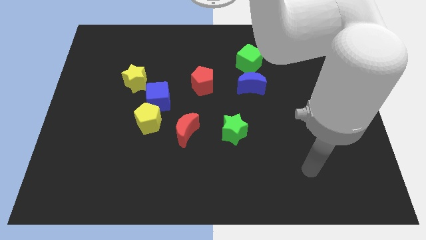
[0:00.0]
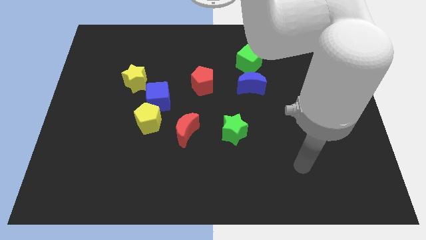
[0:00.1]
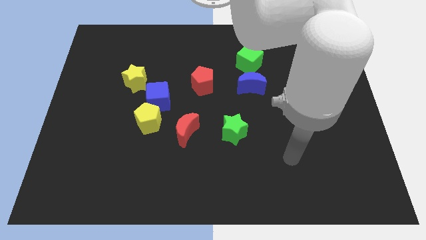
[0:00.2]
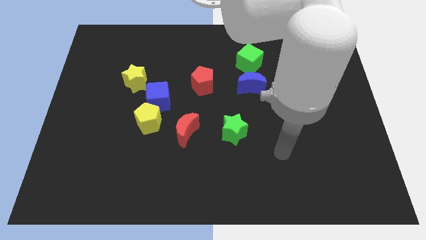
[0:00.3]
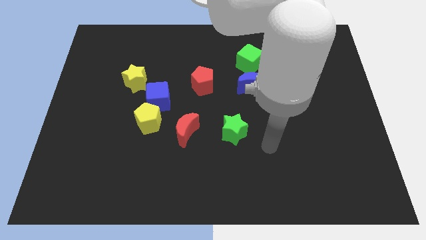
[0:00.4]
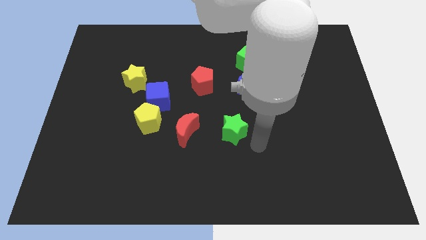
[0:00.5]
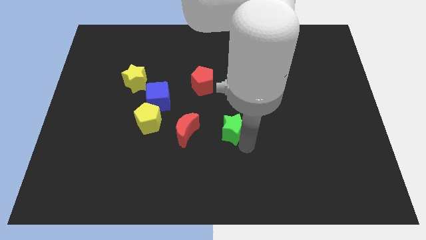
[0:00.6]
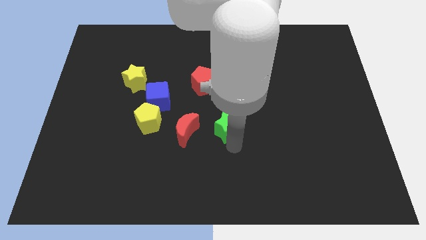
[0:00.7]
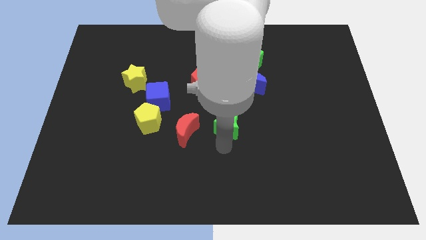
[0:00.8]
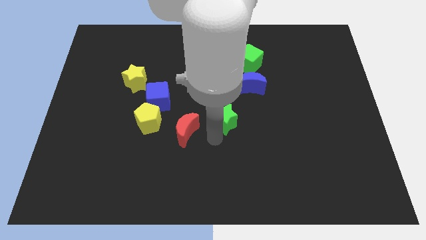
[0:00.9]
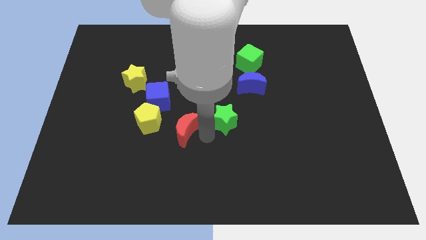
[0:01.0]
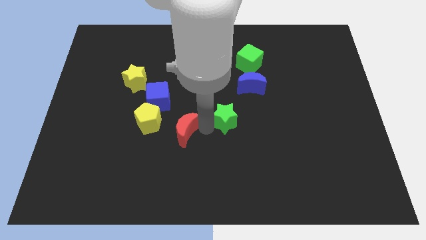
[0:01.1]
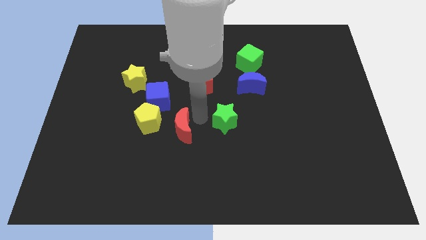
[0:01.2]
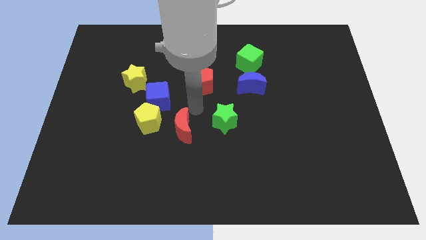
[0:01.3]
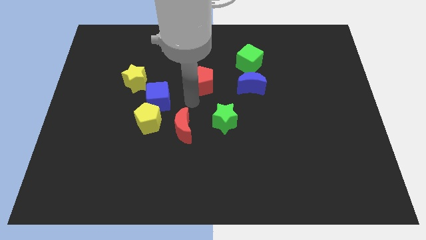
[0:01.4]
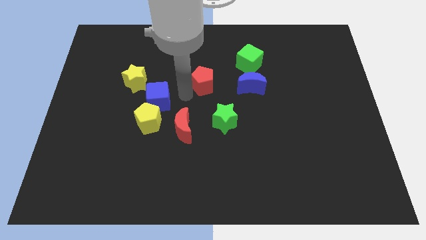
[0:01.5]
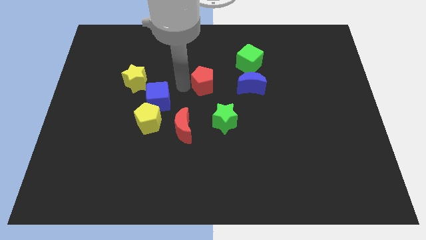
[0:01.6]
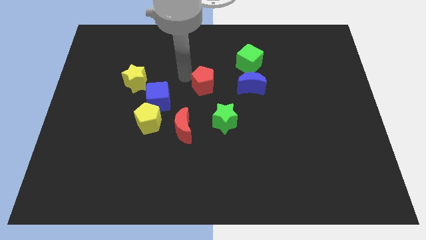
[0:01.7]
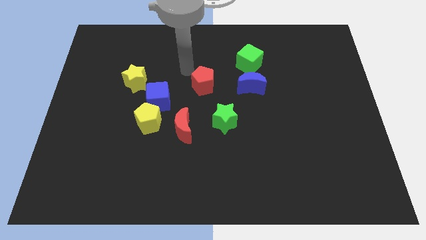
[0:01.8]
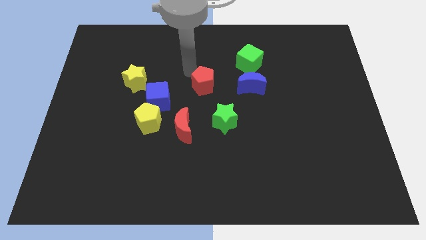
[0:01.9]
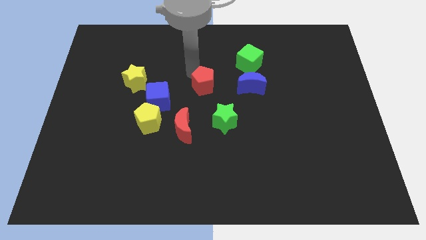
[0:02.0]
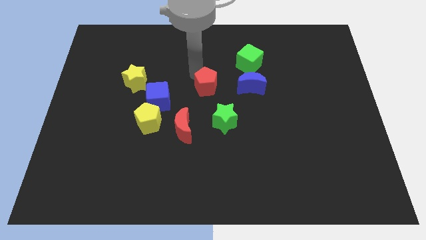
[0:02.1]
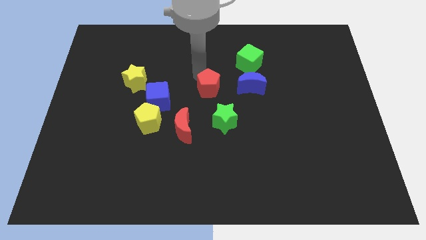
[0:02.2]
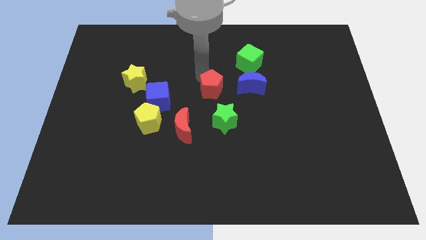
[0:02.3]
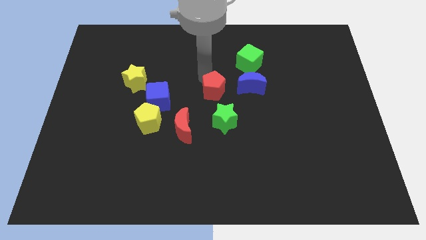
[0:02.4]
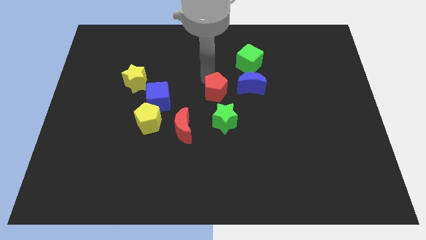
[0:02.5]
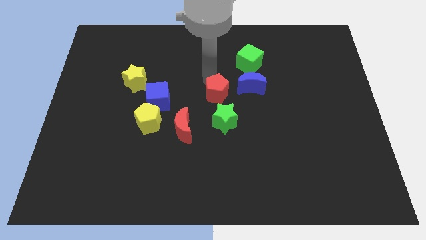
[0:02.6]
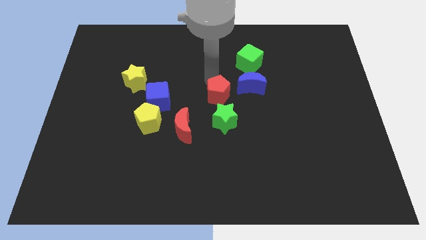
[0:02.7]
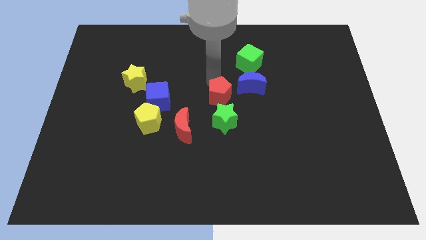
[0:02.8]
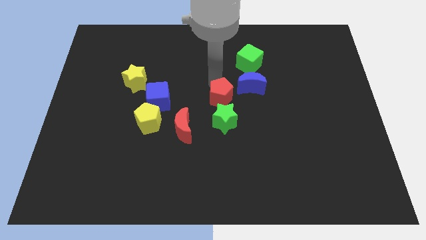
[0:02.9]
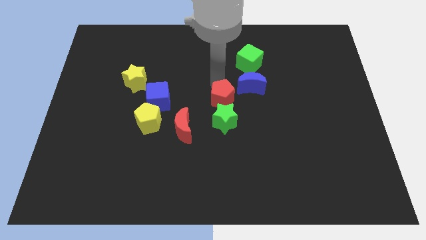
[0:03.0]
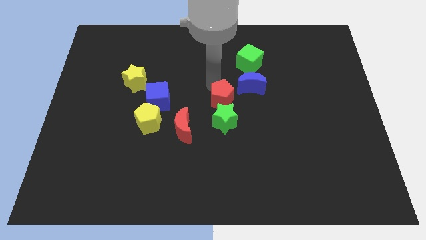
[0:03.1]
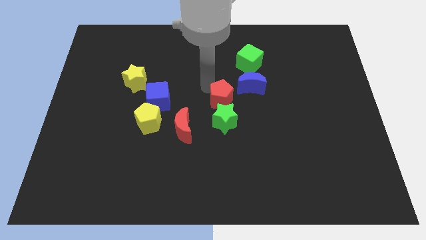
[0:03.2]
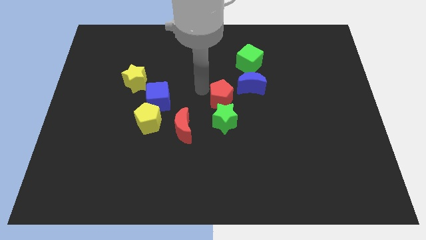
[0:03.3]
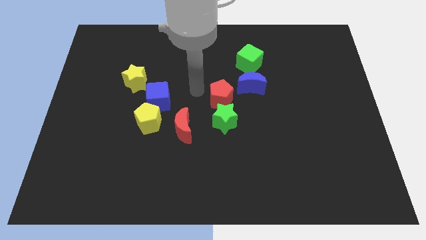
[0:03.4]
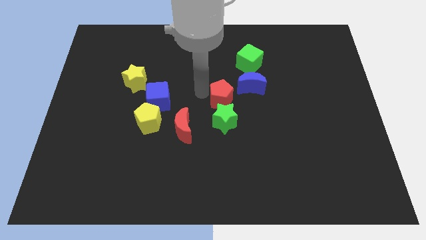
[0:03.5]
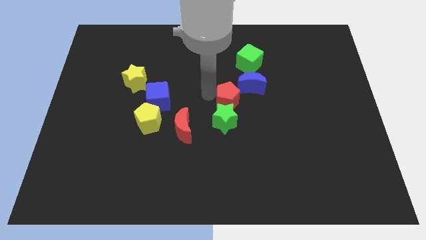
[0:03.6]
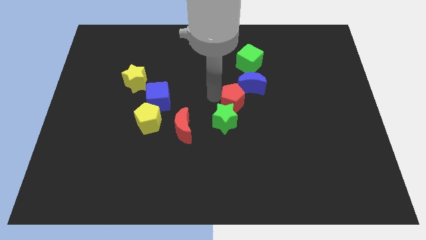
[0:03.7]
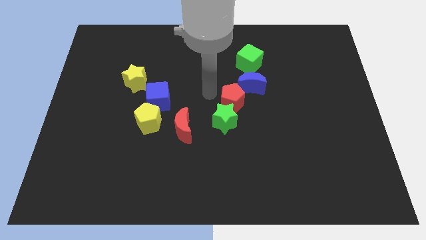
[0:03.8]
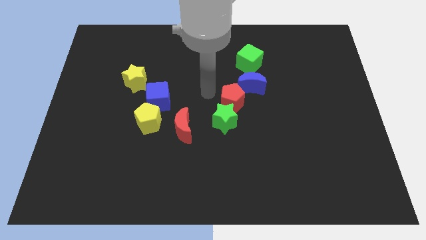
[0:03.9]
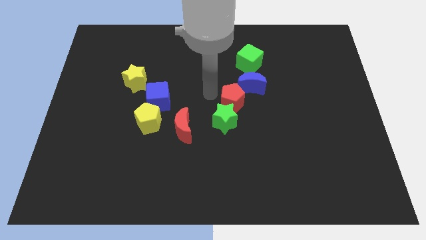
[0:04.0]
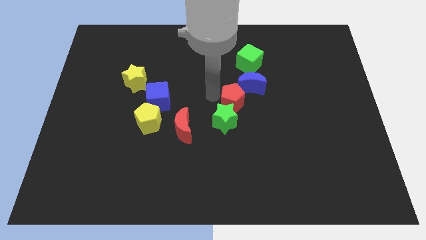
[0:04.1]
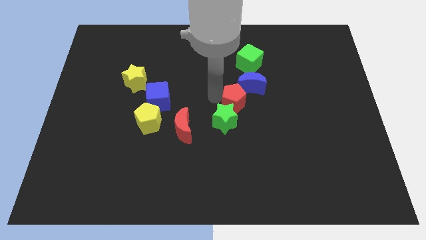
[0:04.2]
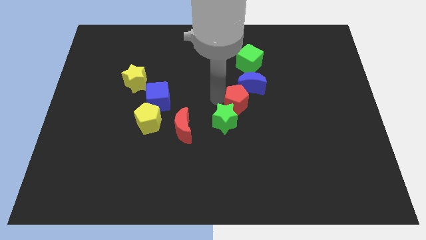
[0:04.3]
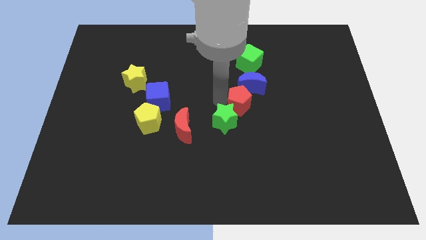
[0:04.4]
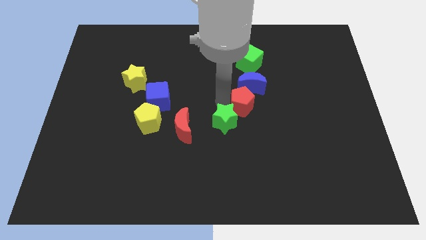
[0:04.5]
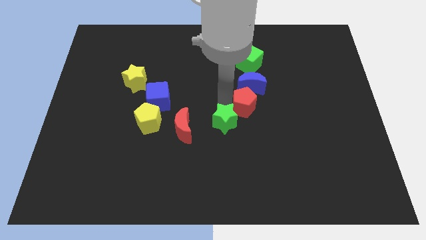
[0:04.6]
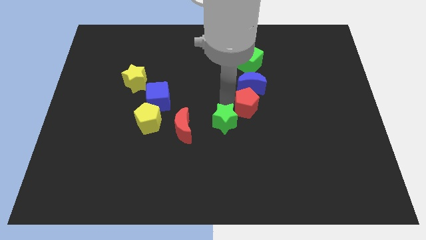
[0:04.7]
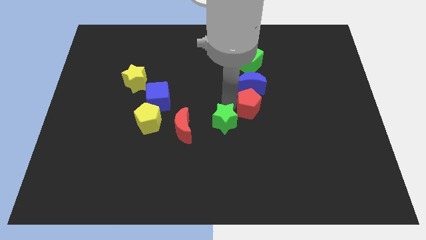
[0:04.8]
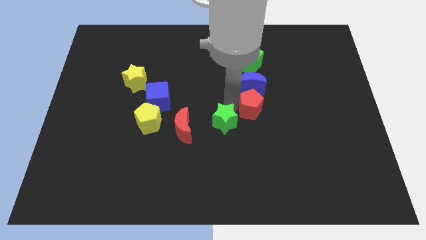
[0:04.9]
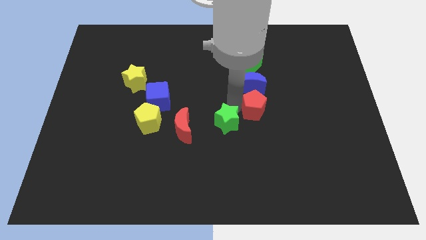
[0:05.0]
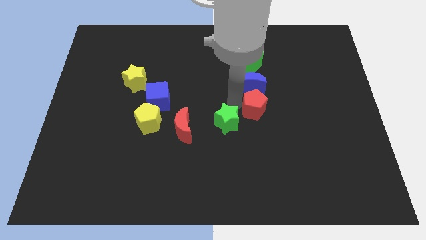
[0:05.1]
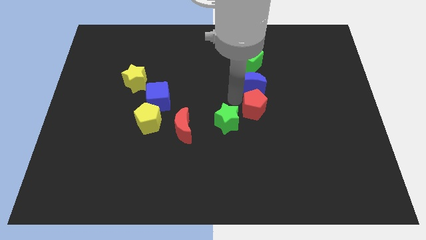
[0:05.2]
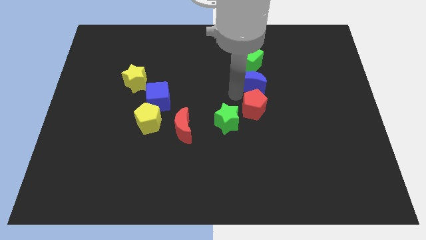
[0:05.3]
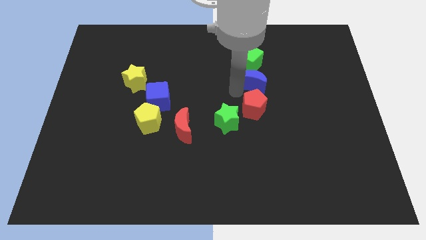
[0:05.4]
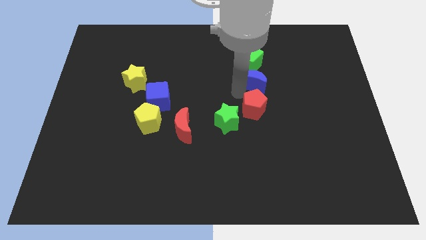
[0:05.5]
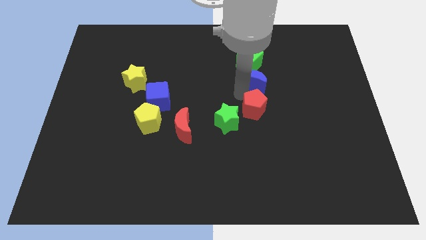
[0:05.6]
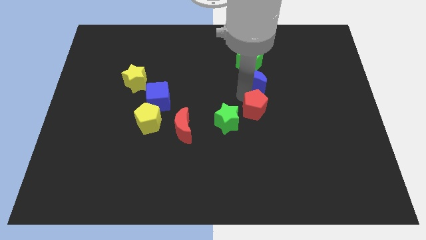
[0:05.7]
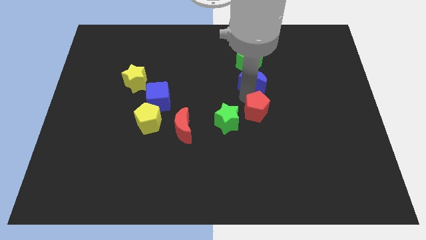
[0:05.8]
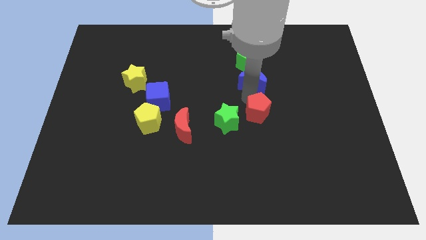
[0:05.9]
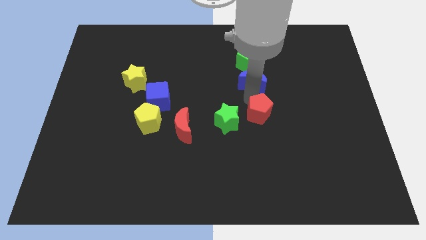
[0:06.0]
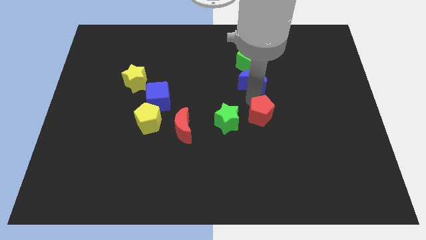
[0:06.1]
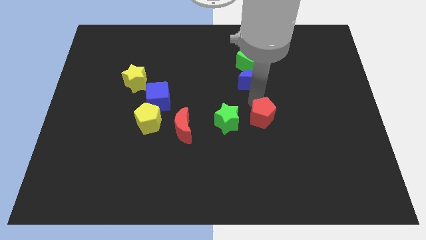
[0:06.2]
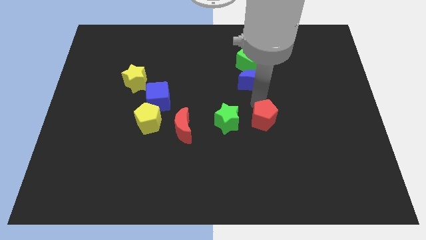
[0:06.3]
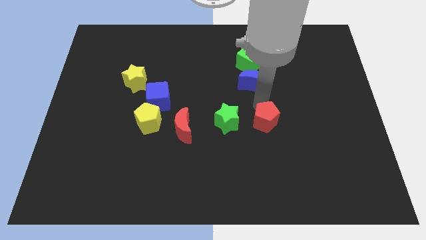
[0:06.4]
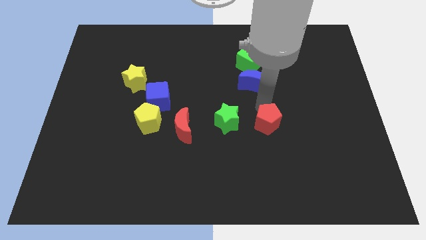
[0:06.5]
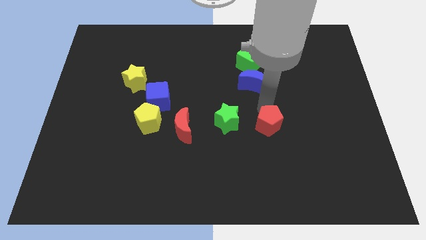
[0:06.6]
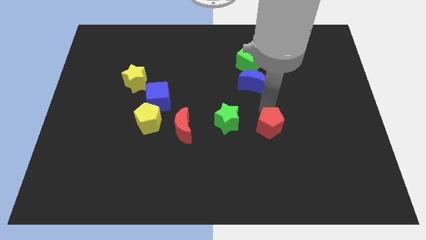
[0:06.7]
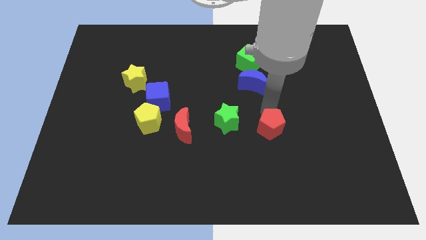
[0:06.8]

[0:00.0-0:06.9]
move the red pentagon diagonally downwards and to the right

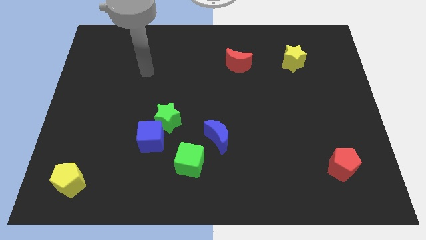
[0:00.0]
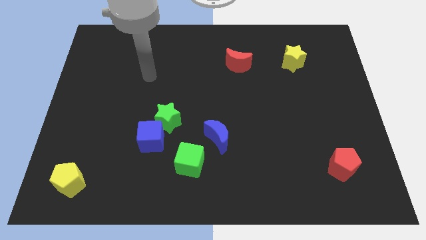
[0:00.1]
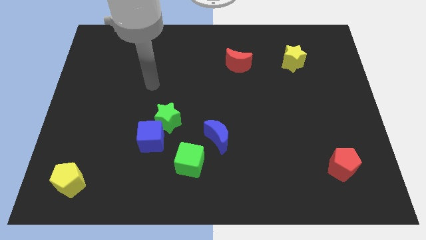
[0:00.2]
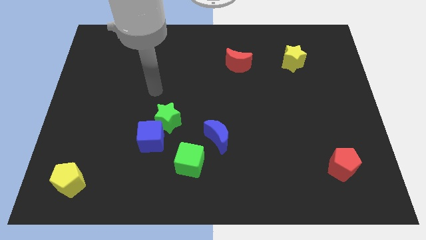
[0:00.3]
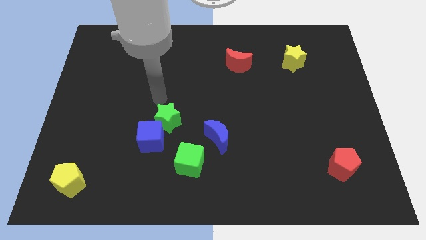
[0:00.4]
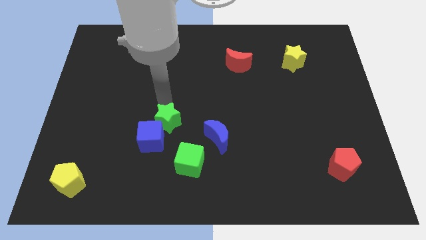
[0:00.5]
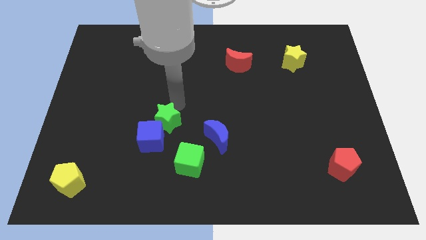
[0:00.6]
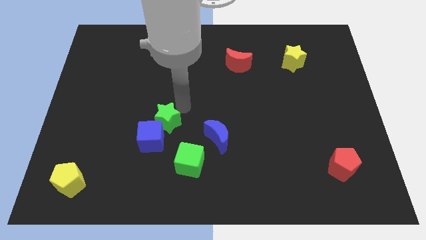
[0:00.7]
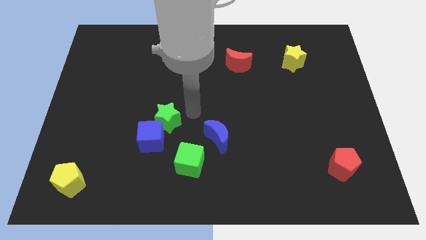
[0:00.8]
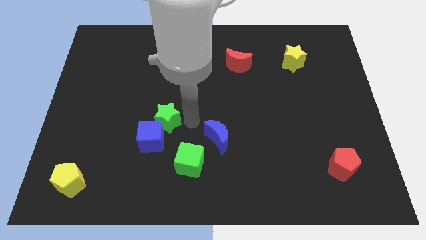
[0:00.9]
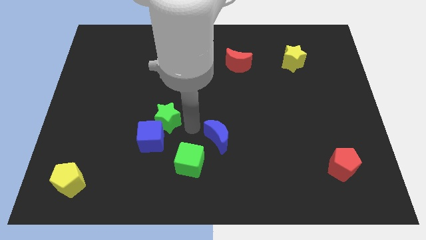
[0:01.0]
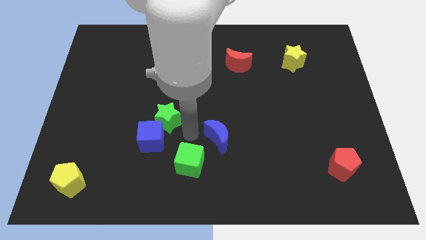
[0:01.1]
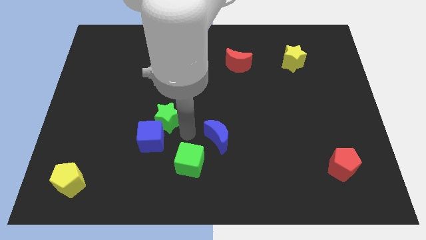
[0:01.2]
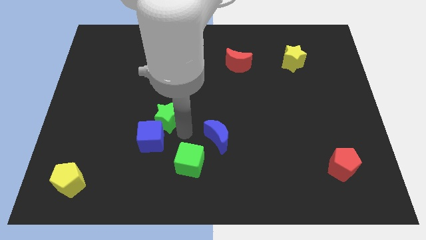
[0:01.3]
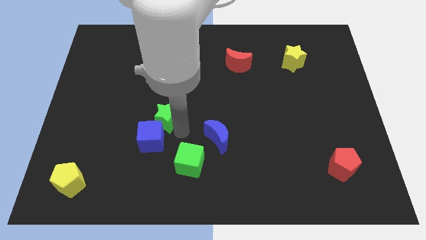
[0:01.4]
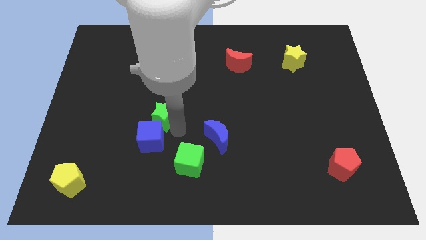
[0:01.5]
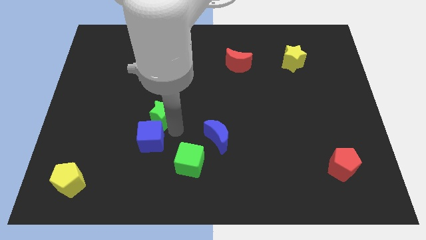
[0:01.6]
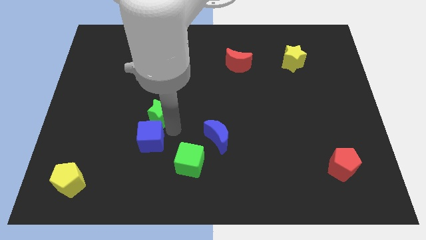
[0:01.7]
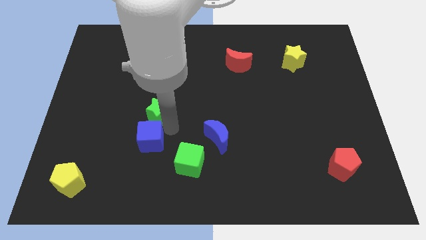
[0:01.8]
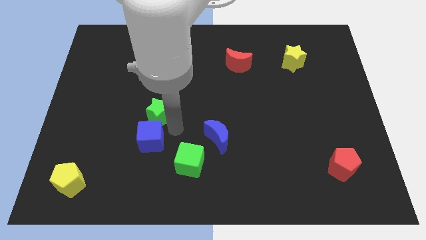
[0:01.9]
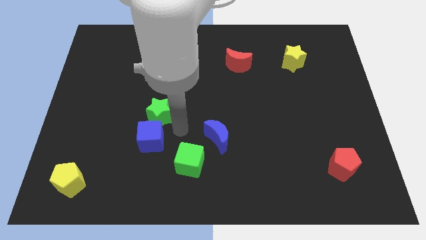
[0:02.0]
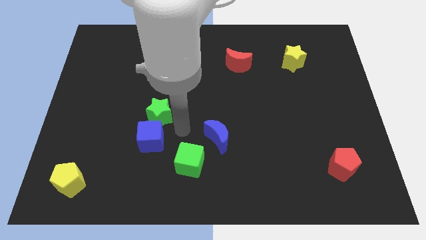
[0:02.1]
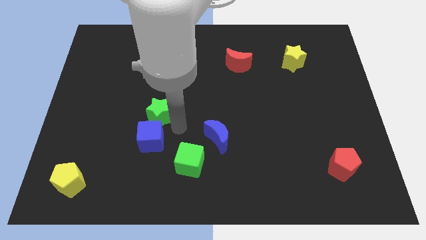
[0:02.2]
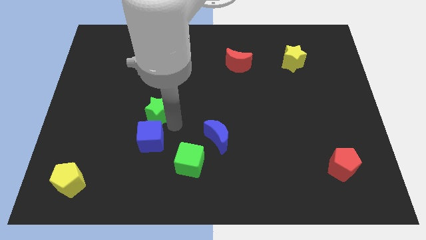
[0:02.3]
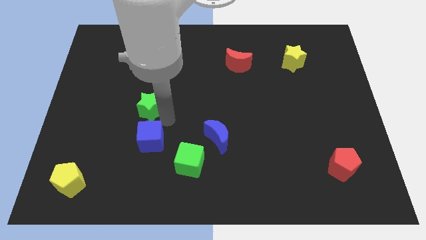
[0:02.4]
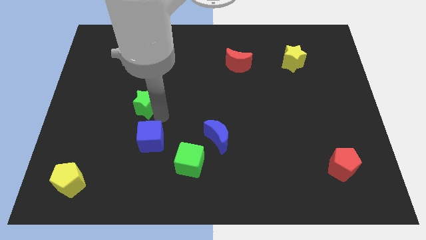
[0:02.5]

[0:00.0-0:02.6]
slightly push the green star upwards and then to the left
